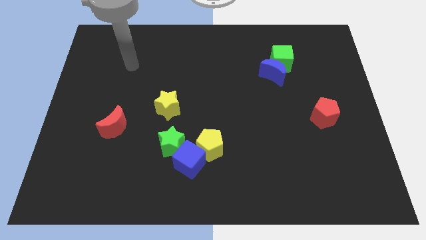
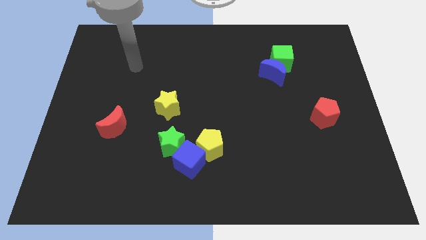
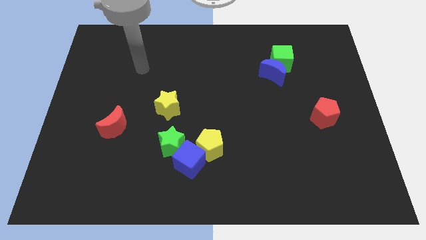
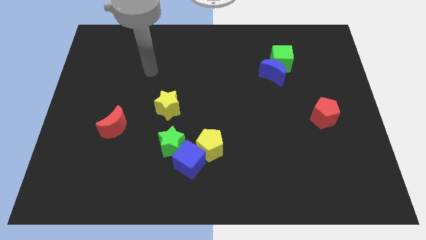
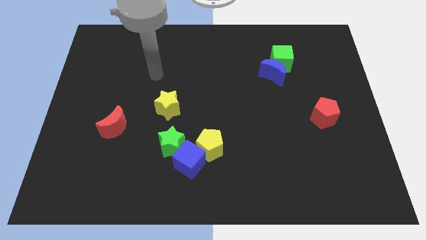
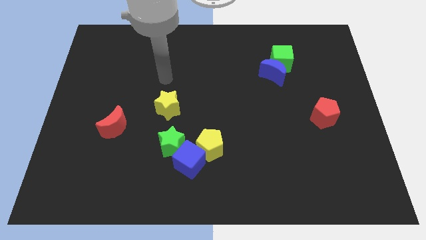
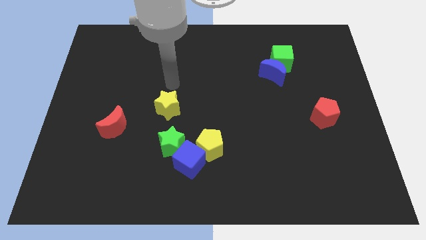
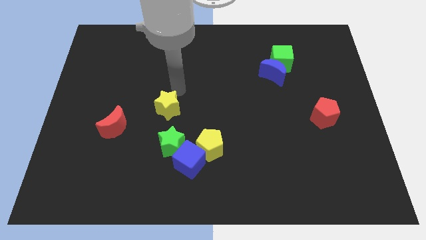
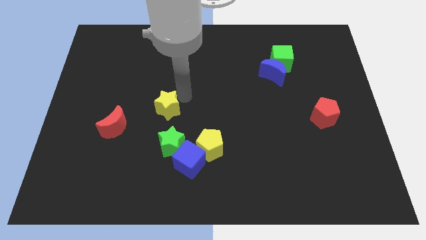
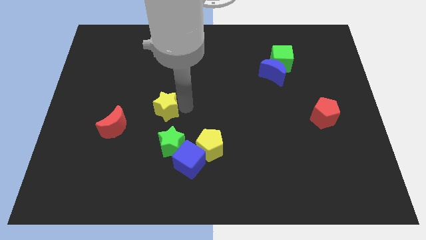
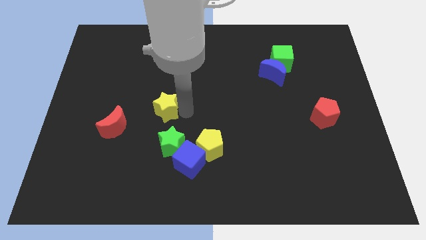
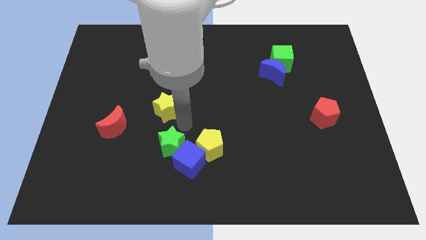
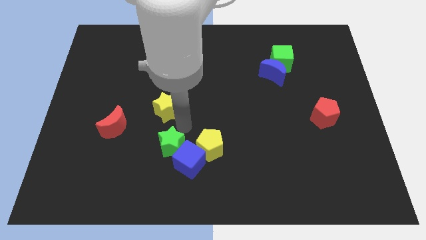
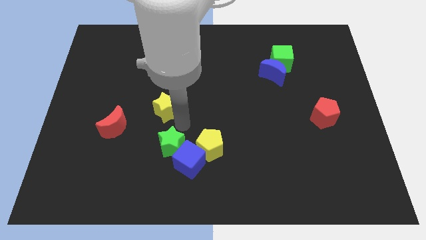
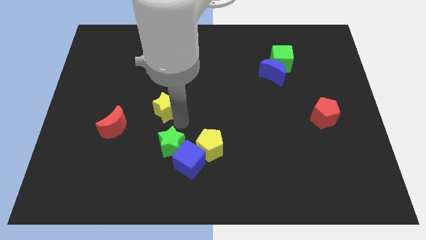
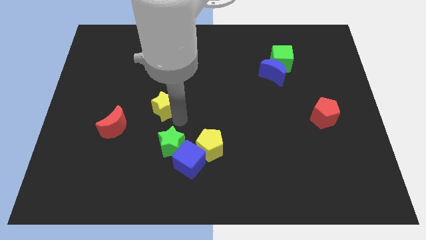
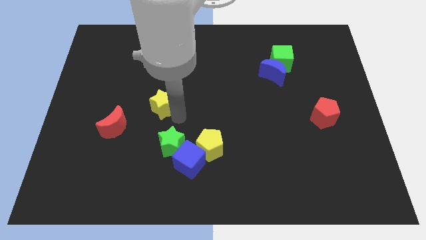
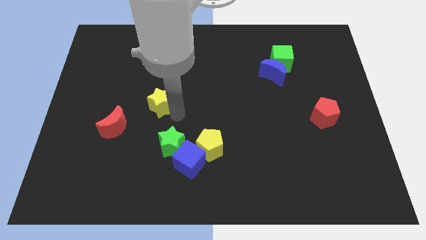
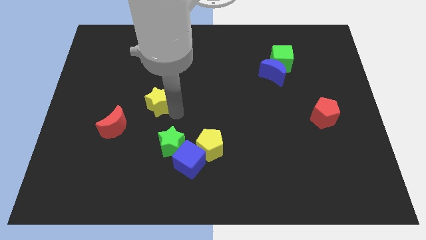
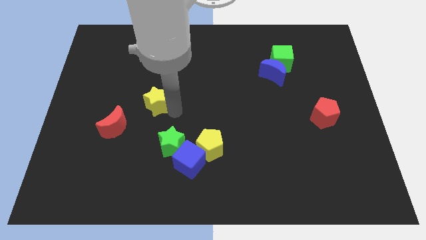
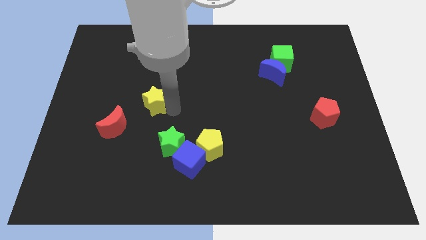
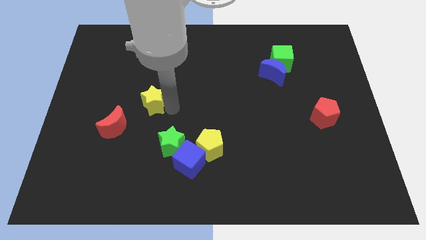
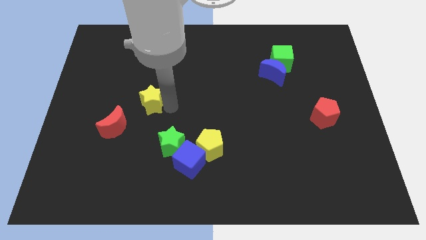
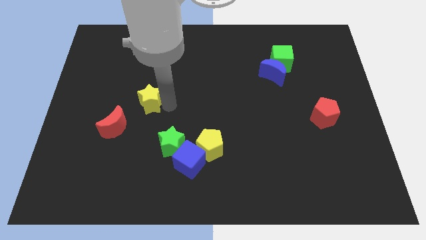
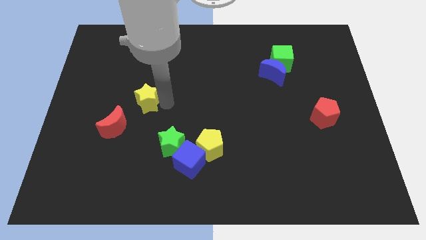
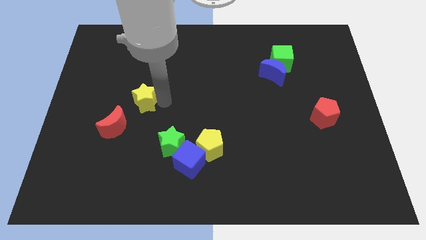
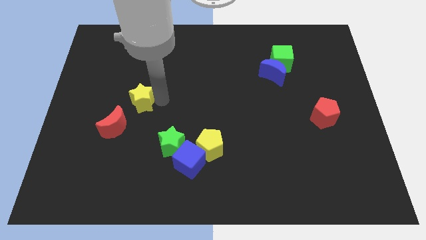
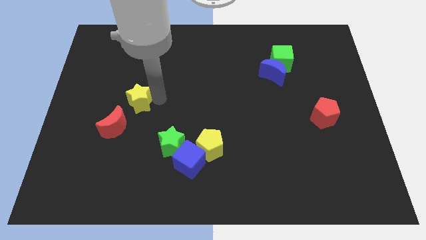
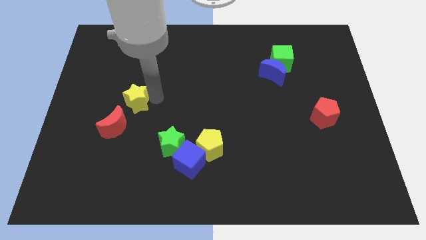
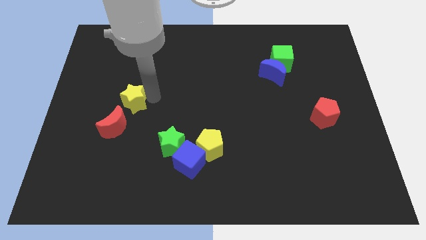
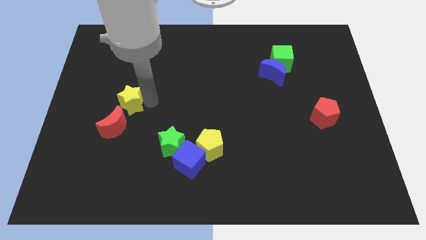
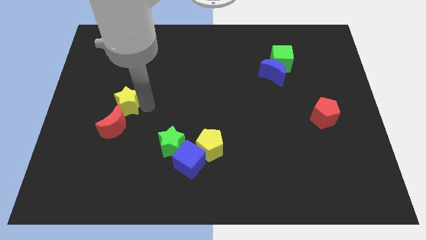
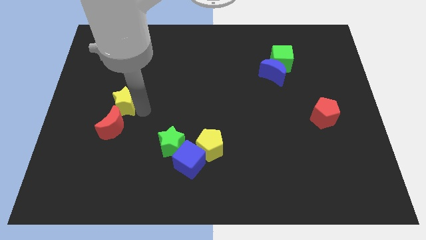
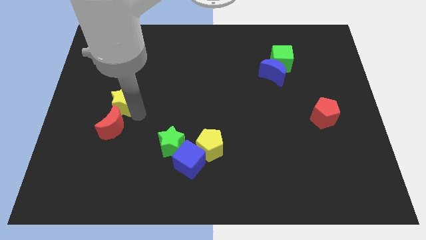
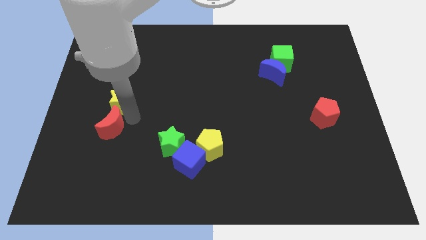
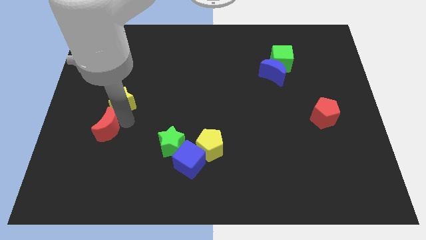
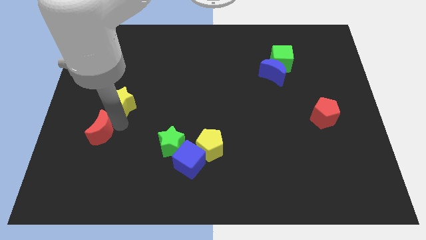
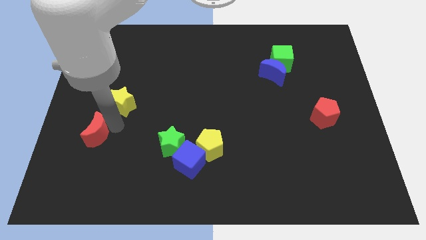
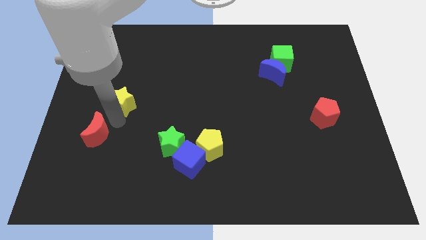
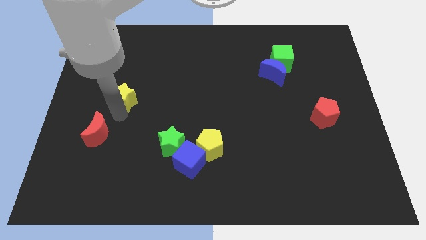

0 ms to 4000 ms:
move the yellow star a bit upwards and left

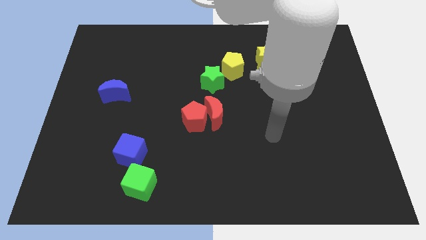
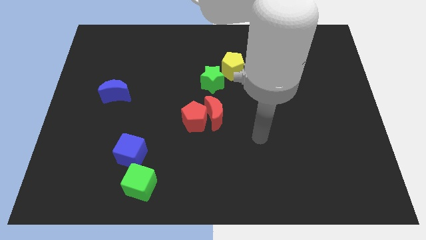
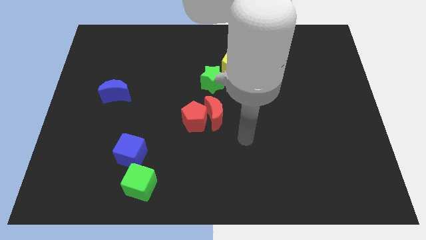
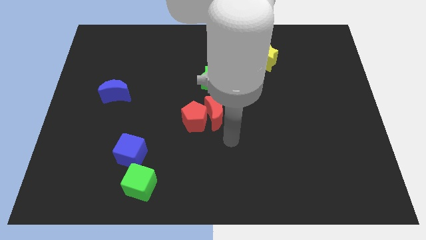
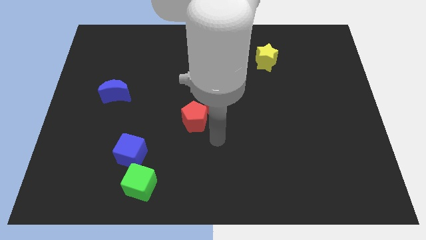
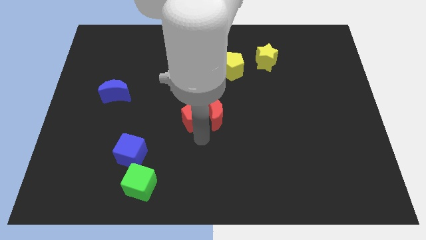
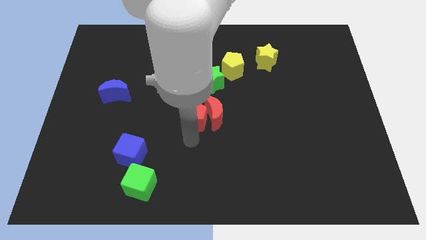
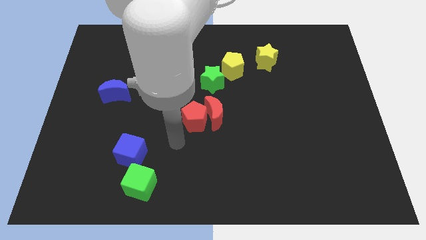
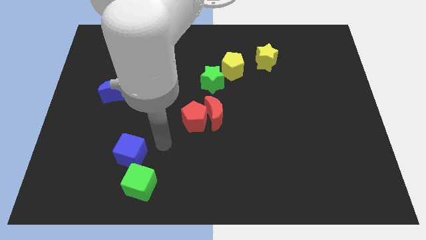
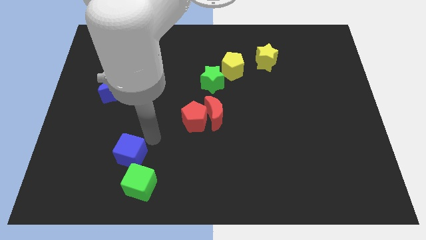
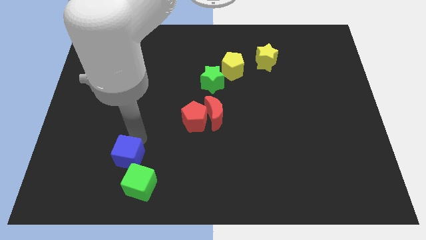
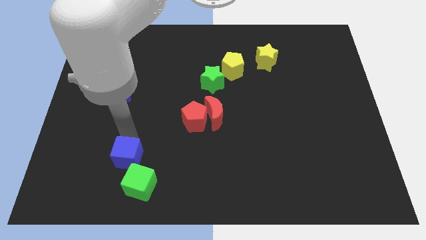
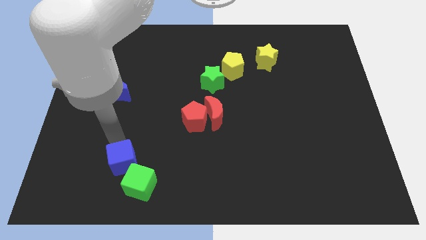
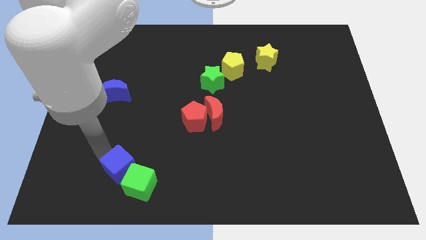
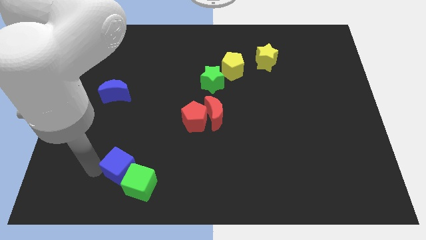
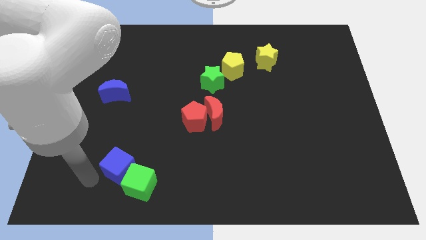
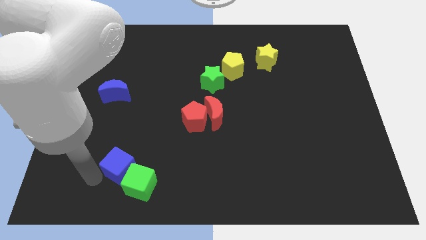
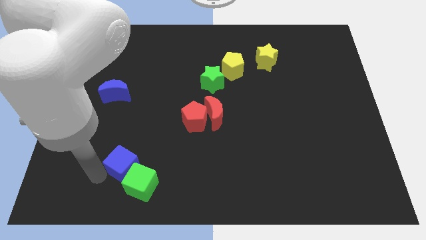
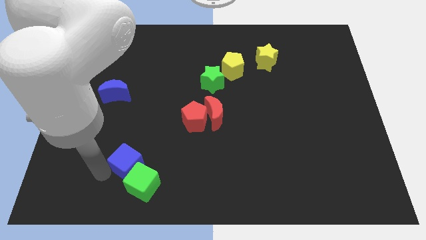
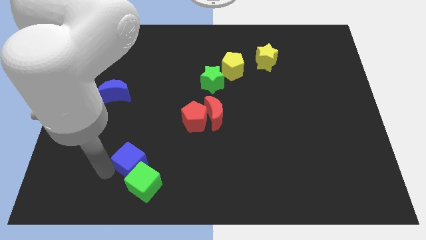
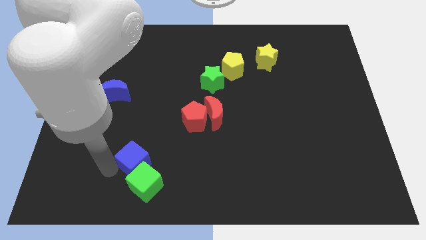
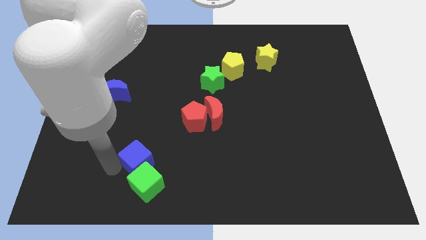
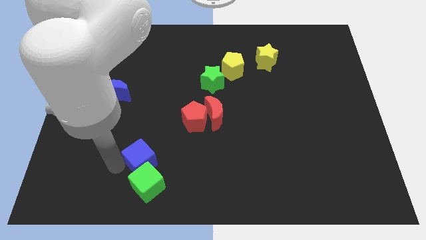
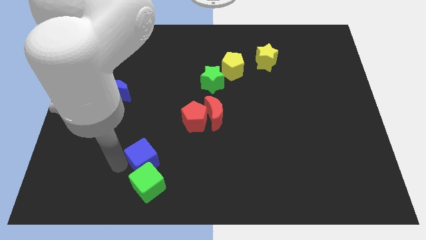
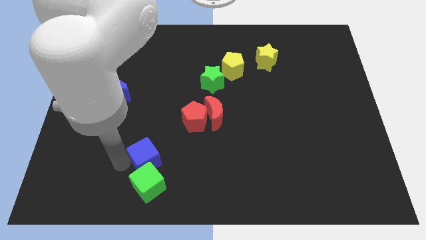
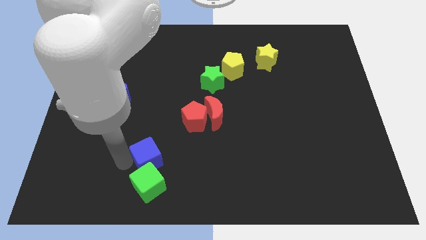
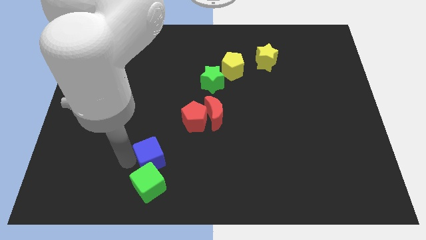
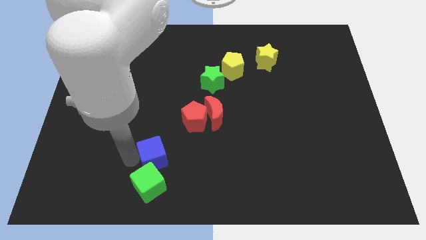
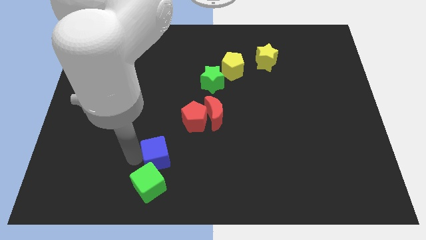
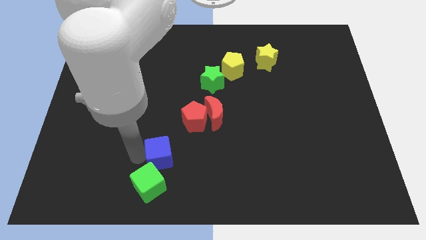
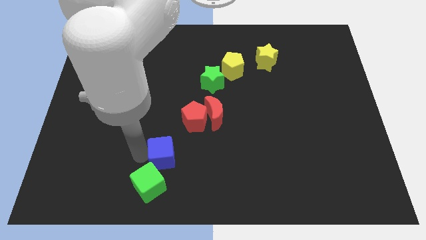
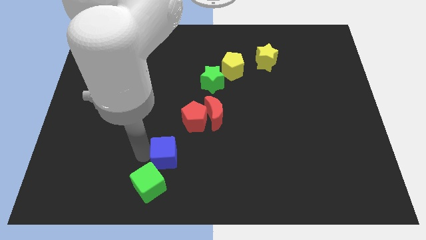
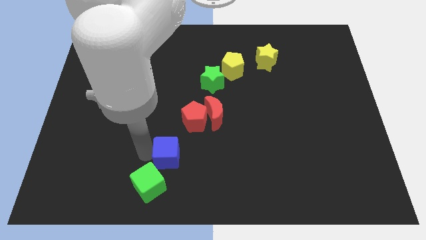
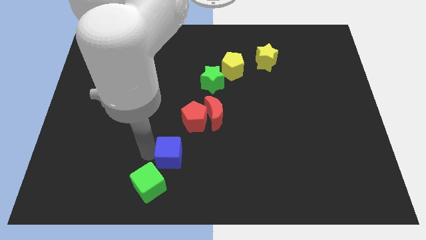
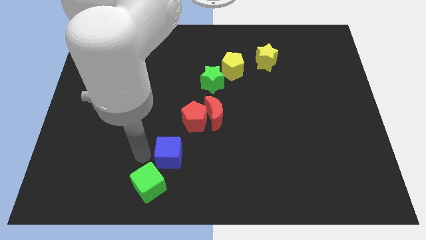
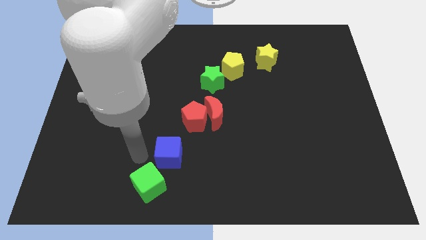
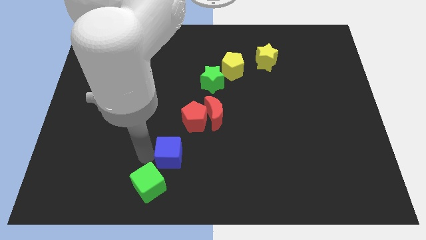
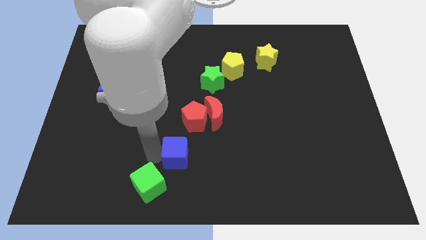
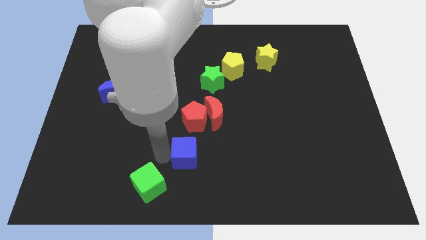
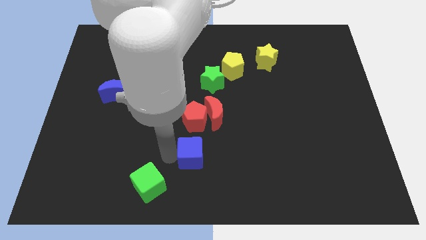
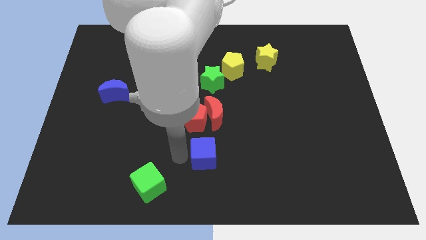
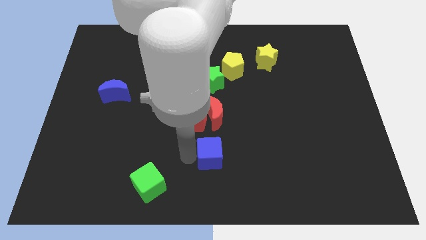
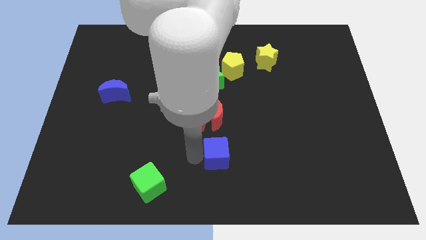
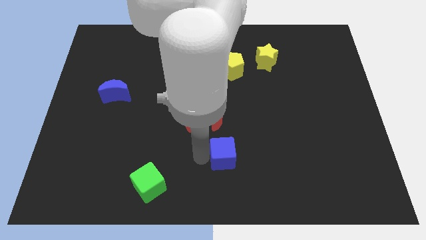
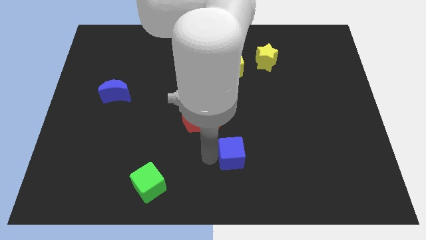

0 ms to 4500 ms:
slide the blue cube to the right
